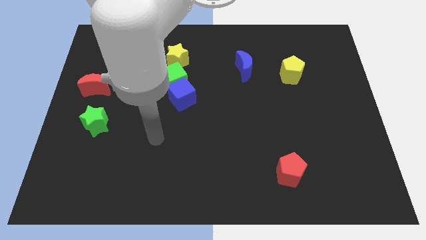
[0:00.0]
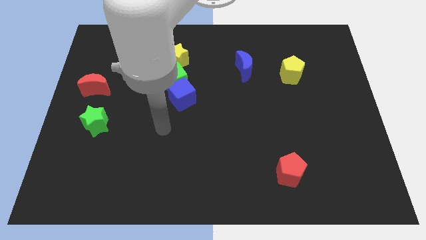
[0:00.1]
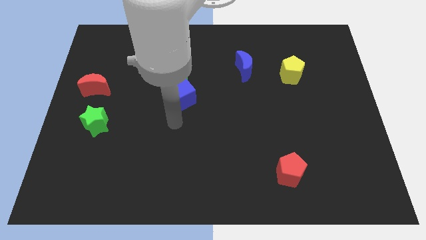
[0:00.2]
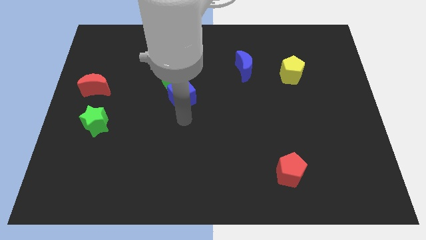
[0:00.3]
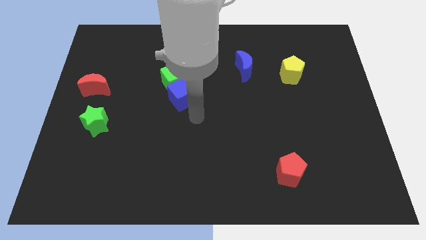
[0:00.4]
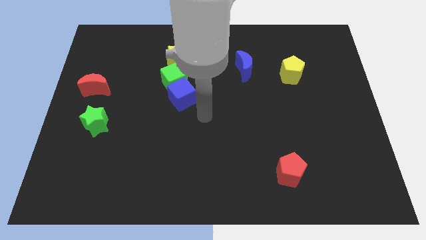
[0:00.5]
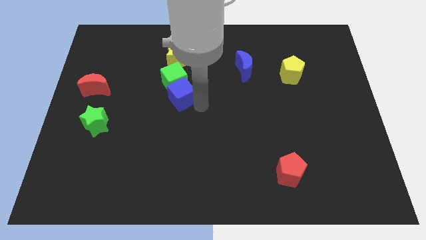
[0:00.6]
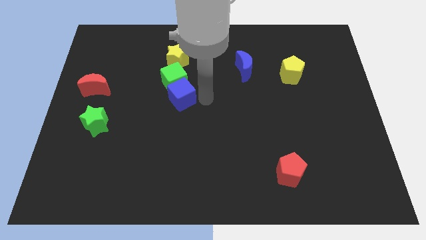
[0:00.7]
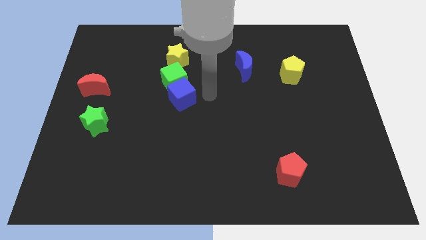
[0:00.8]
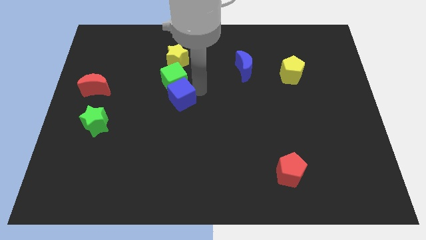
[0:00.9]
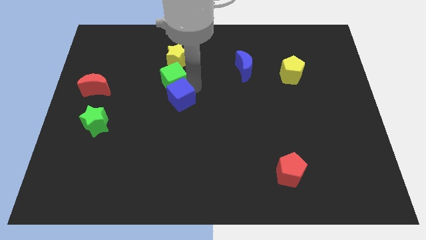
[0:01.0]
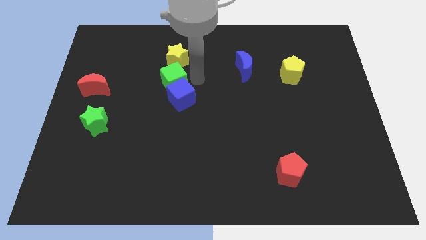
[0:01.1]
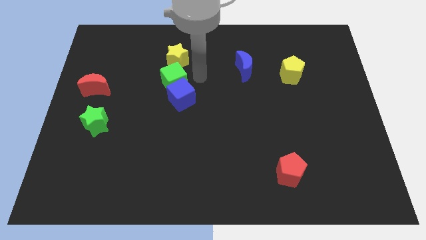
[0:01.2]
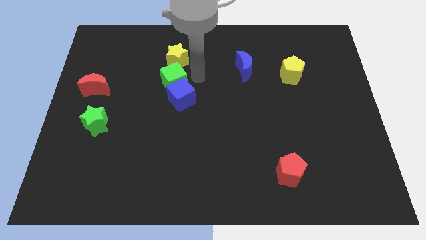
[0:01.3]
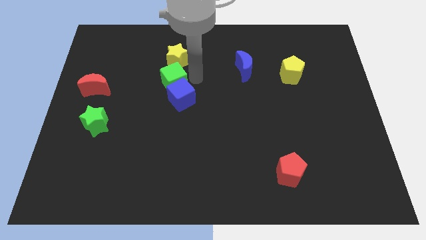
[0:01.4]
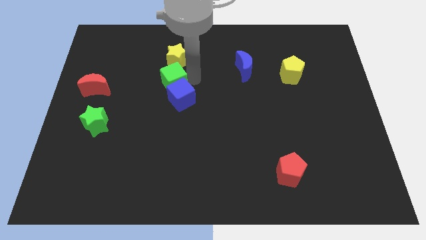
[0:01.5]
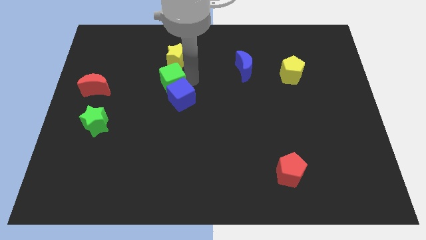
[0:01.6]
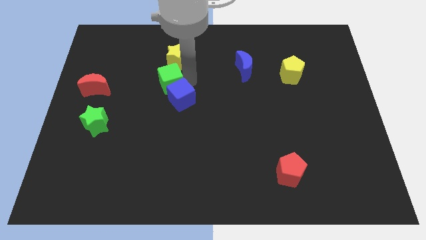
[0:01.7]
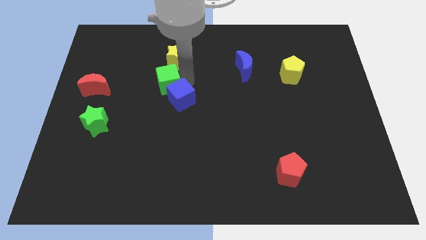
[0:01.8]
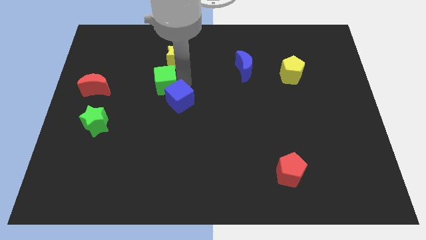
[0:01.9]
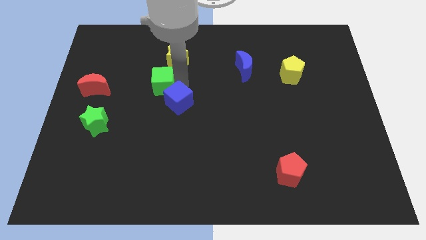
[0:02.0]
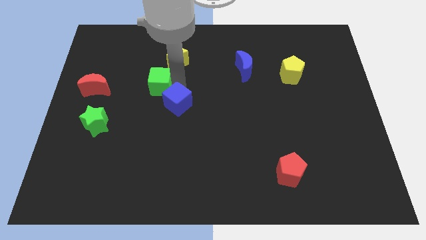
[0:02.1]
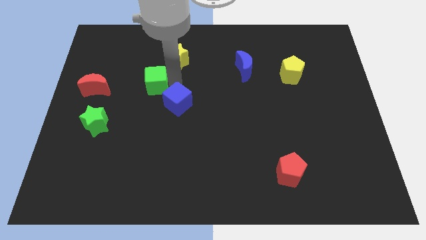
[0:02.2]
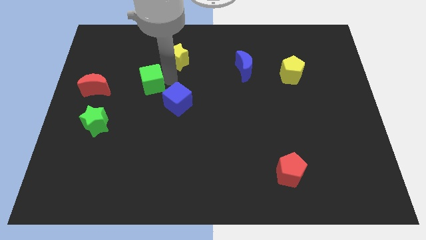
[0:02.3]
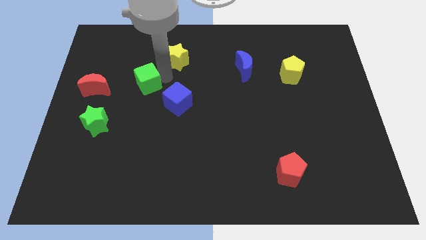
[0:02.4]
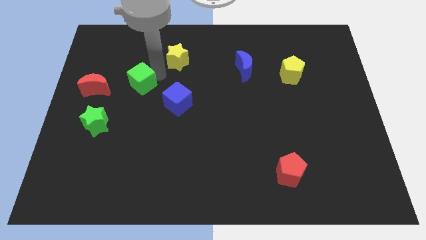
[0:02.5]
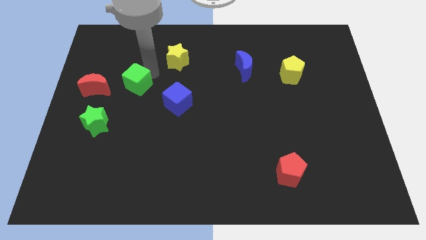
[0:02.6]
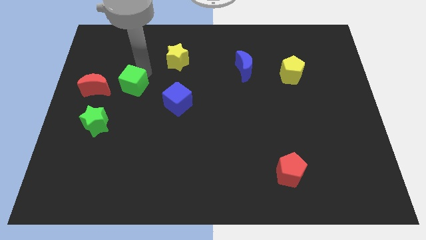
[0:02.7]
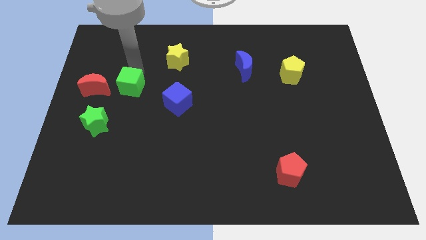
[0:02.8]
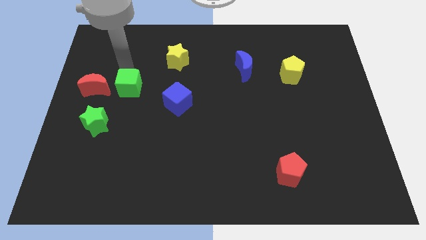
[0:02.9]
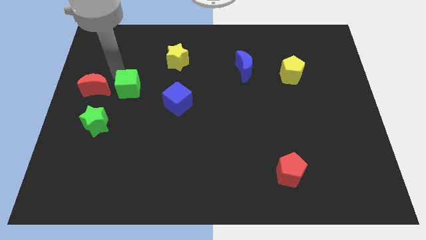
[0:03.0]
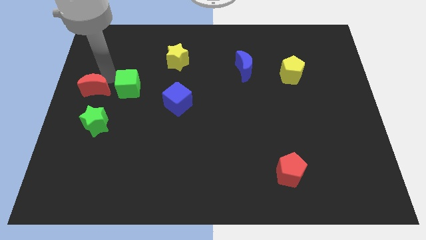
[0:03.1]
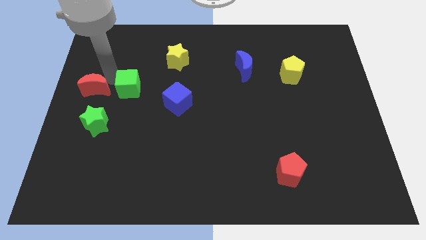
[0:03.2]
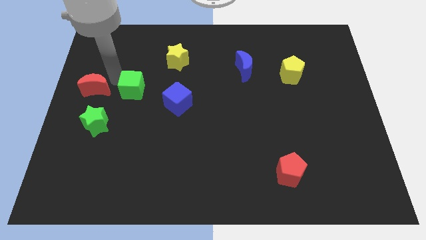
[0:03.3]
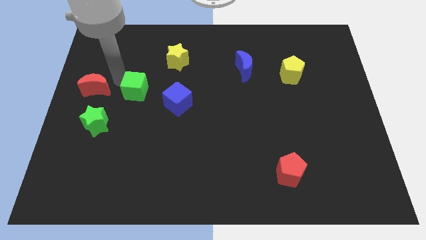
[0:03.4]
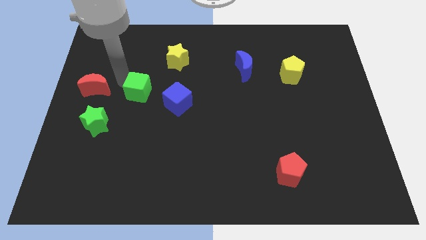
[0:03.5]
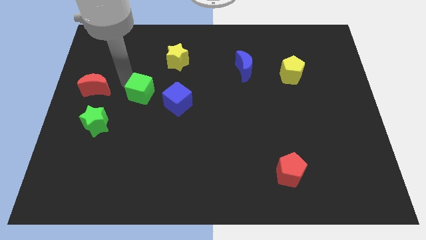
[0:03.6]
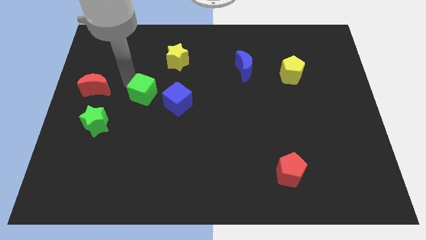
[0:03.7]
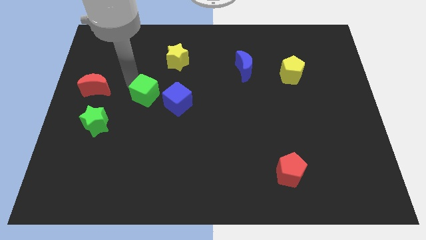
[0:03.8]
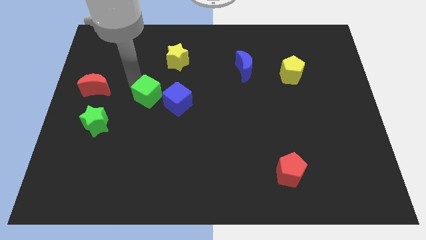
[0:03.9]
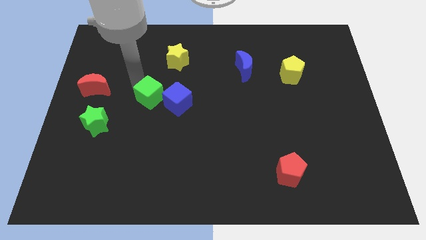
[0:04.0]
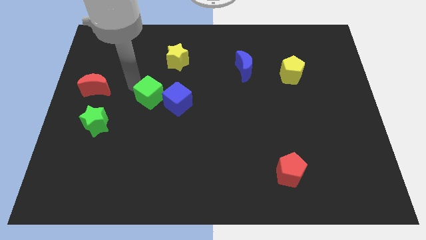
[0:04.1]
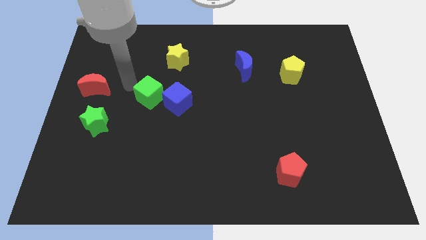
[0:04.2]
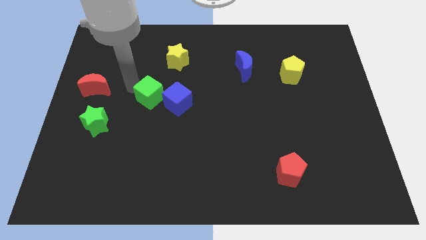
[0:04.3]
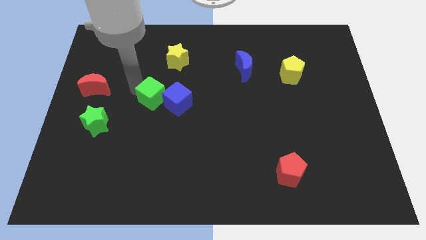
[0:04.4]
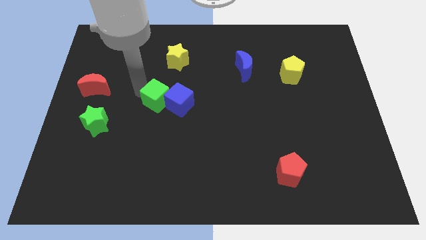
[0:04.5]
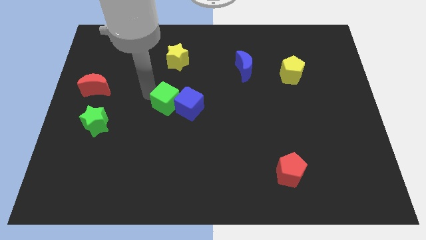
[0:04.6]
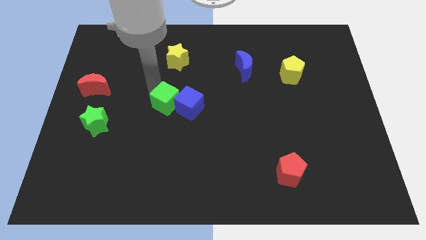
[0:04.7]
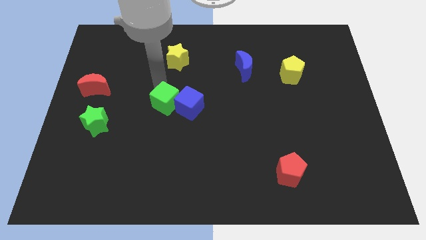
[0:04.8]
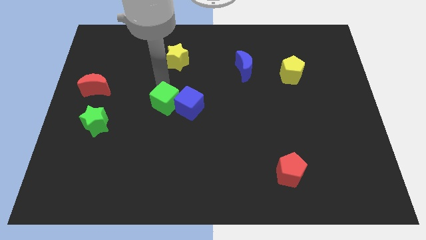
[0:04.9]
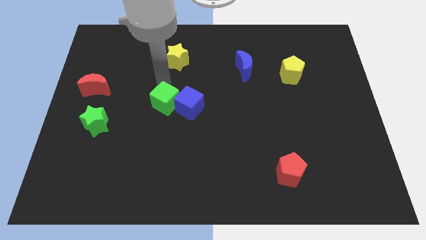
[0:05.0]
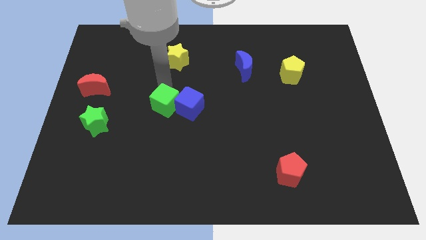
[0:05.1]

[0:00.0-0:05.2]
slightly move the green cube down

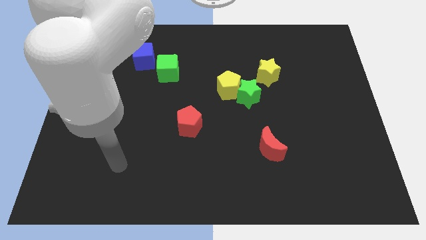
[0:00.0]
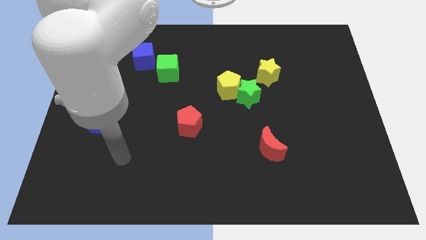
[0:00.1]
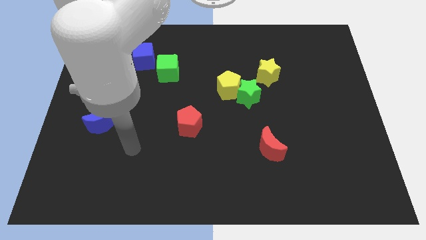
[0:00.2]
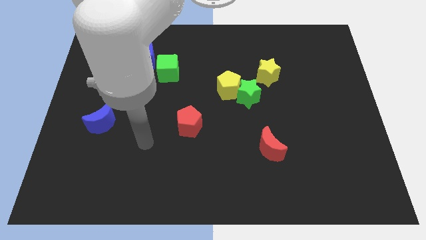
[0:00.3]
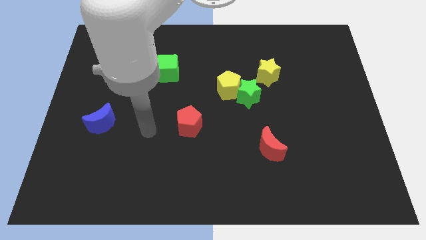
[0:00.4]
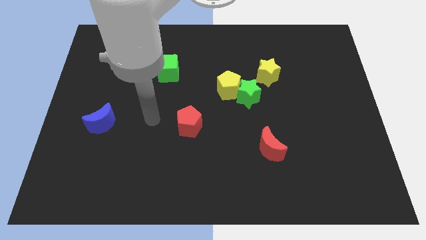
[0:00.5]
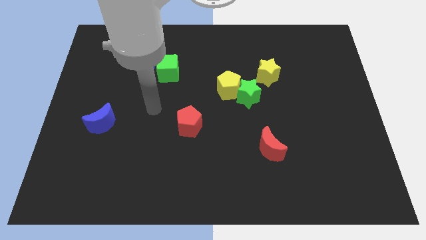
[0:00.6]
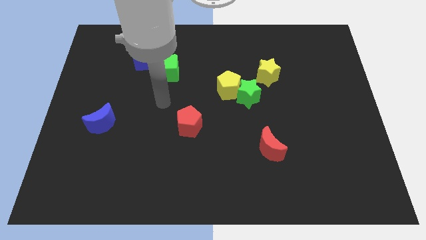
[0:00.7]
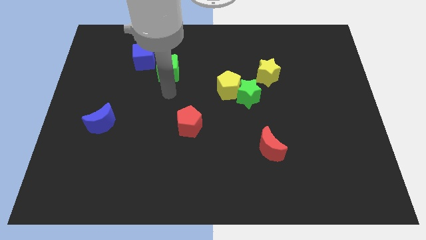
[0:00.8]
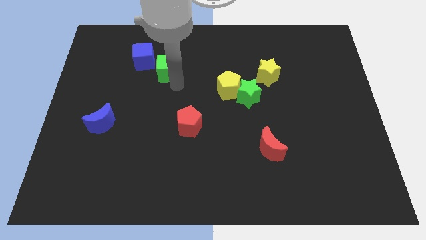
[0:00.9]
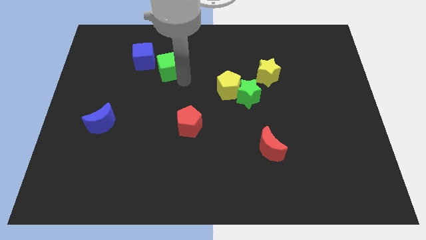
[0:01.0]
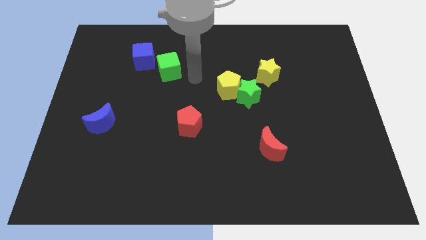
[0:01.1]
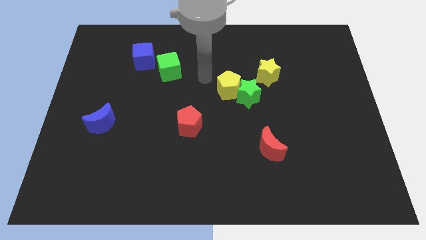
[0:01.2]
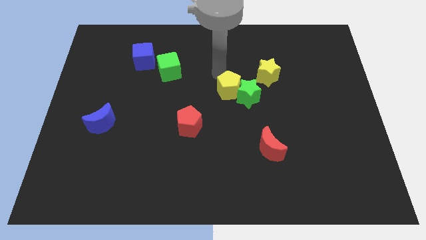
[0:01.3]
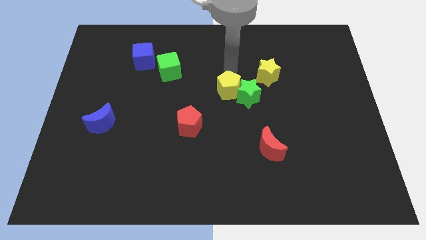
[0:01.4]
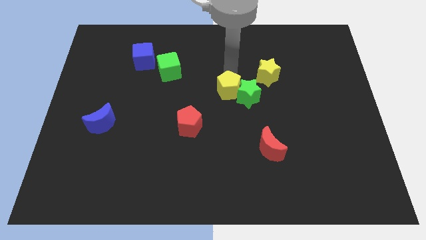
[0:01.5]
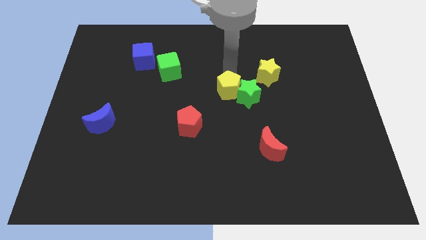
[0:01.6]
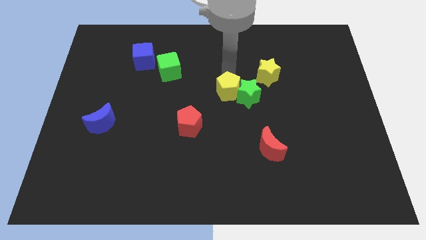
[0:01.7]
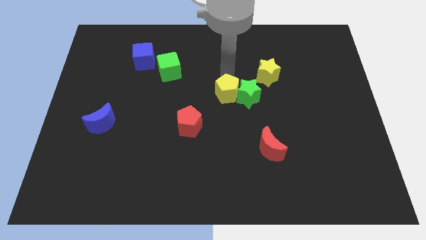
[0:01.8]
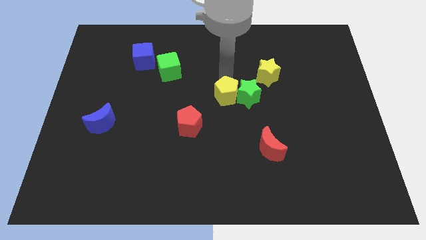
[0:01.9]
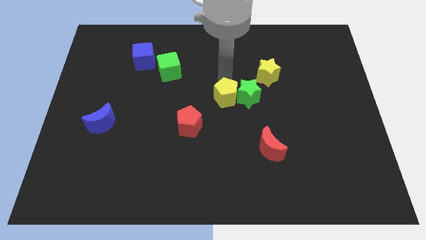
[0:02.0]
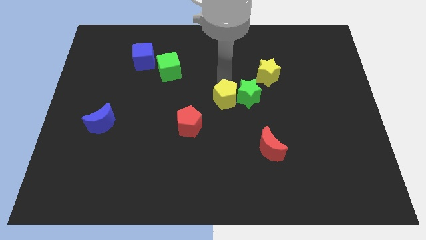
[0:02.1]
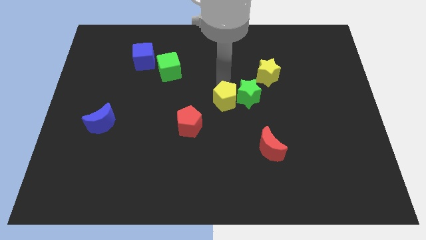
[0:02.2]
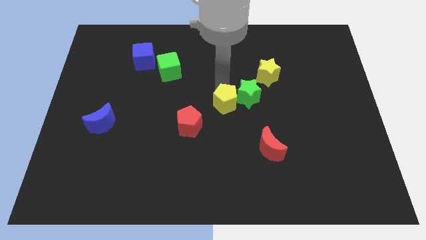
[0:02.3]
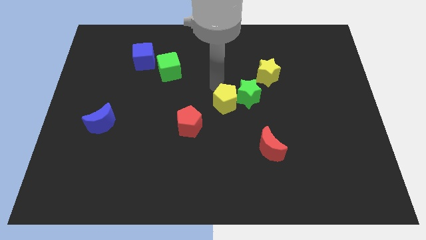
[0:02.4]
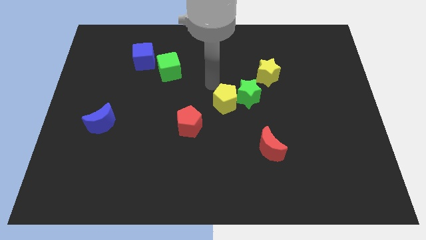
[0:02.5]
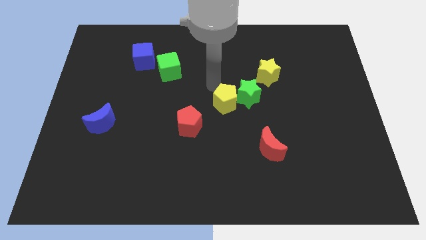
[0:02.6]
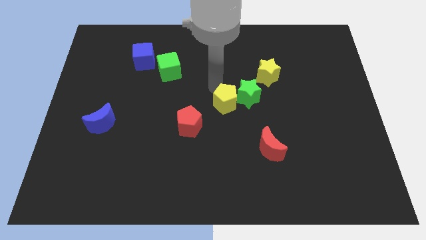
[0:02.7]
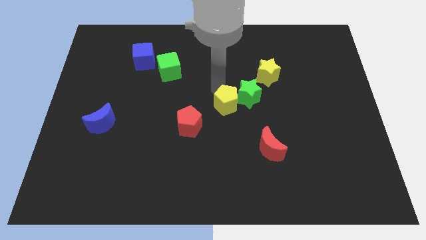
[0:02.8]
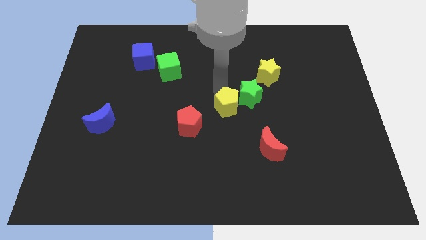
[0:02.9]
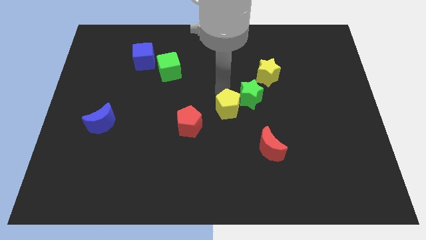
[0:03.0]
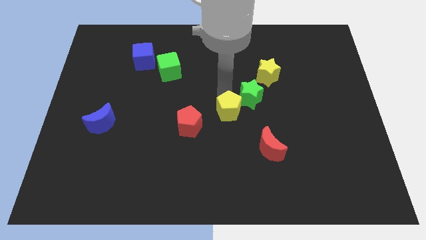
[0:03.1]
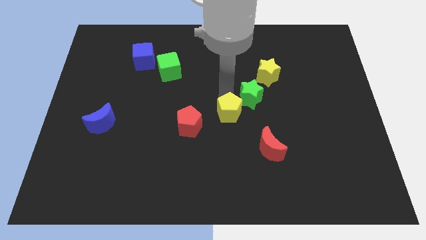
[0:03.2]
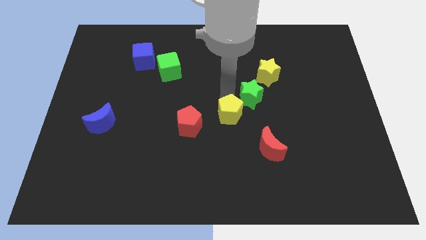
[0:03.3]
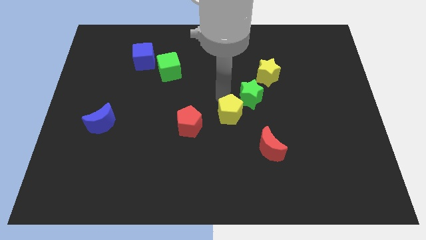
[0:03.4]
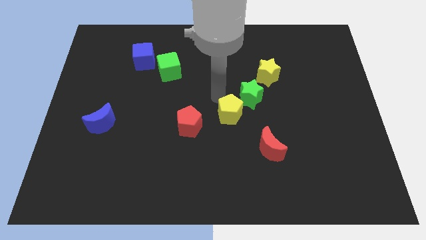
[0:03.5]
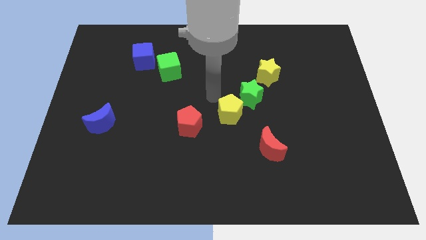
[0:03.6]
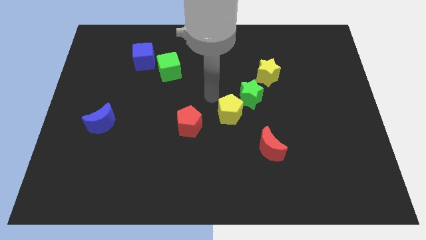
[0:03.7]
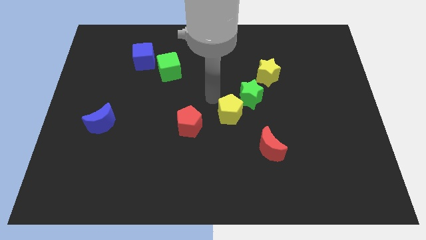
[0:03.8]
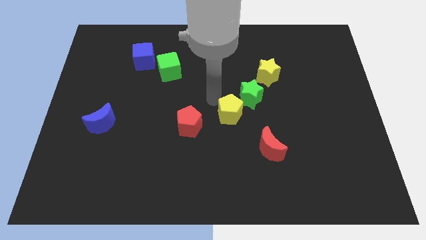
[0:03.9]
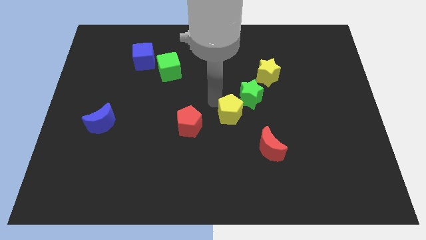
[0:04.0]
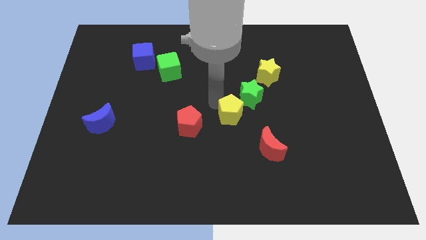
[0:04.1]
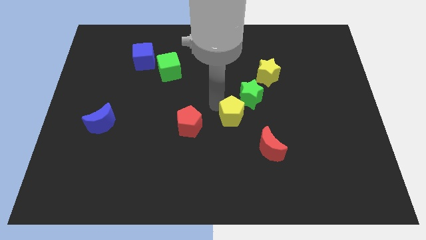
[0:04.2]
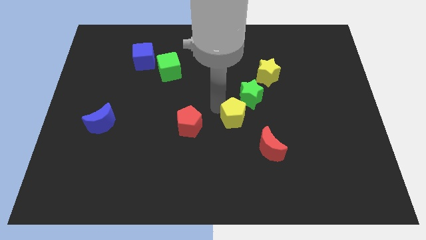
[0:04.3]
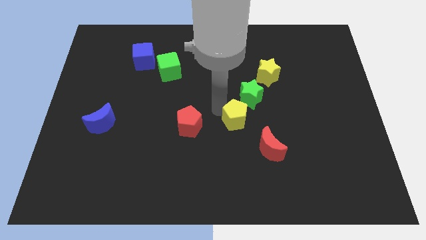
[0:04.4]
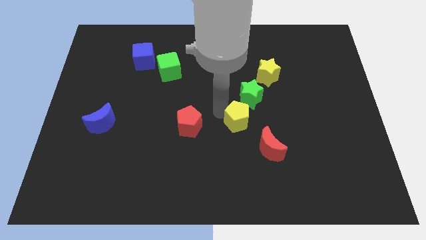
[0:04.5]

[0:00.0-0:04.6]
slightly move the yellow pentagon down and then right
